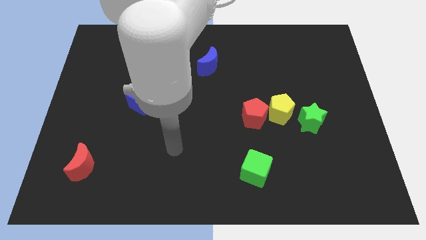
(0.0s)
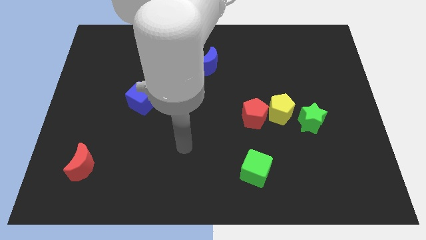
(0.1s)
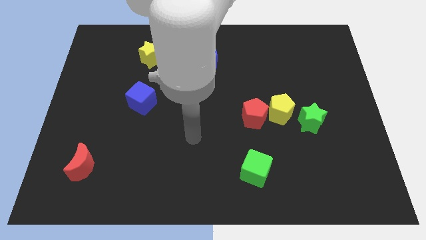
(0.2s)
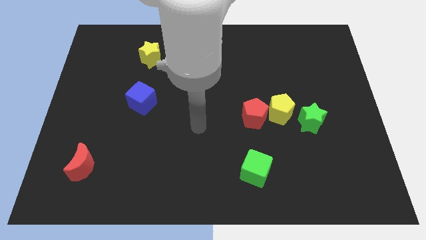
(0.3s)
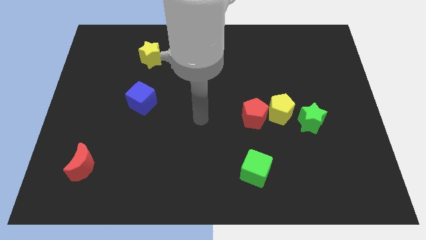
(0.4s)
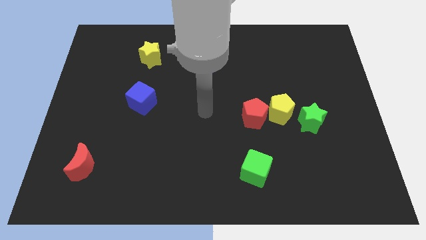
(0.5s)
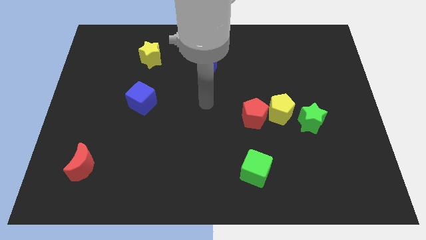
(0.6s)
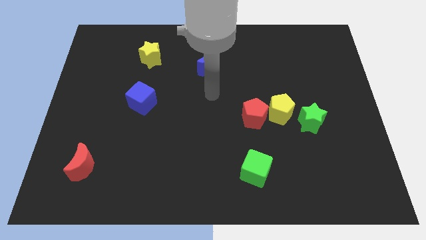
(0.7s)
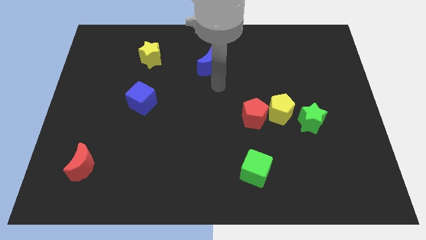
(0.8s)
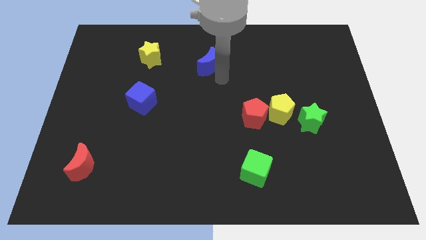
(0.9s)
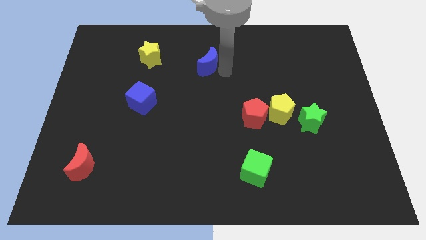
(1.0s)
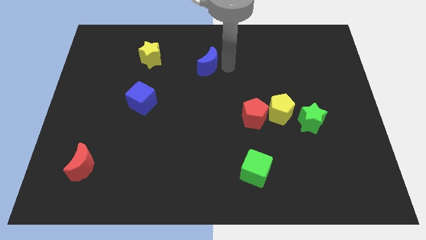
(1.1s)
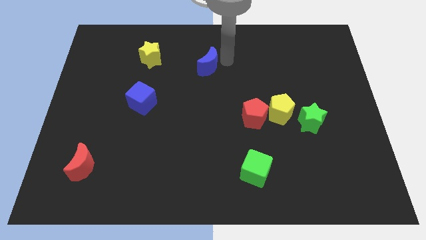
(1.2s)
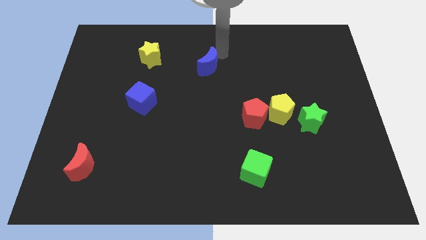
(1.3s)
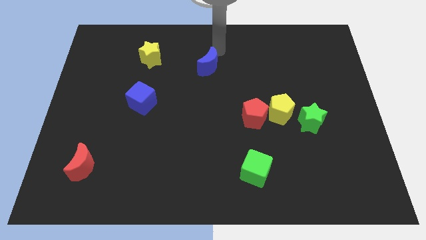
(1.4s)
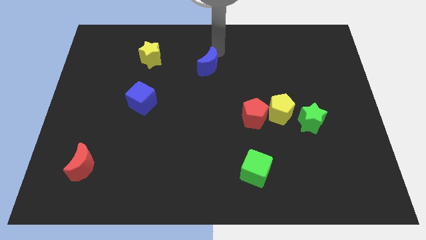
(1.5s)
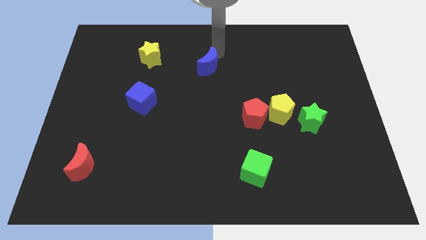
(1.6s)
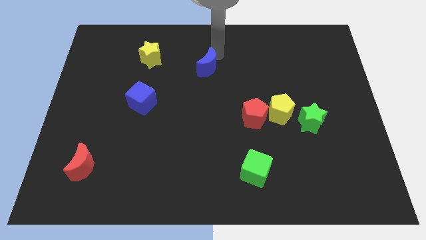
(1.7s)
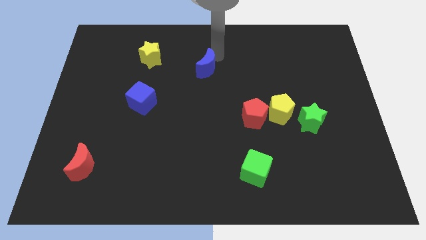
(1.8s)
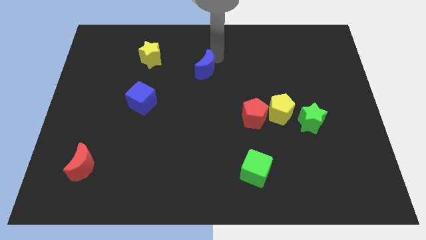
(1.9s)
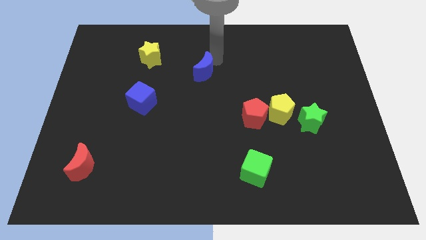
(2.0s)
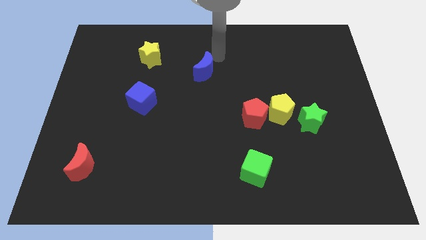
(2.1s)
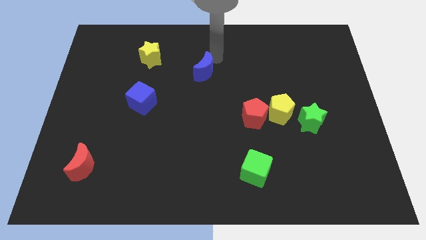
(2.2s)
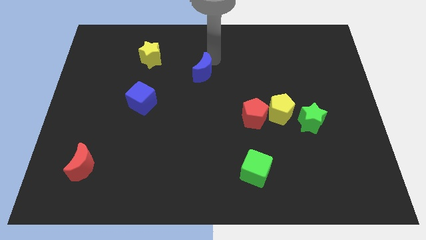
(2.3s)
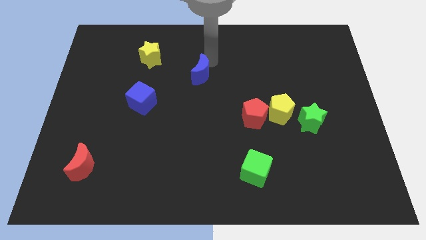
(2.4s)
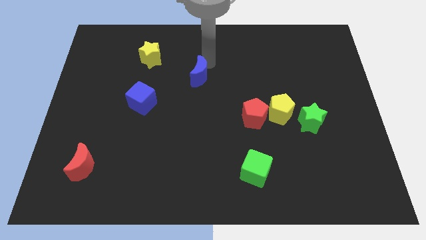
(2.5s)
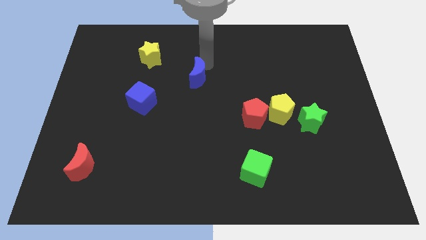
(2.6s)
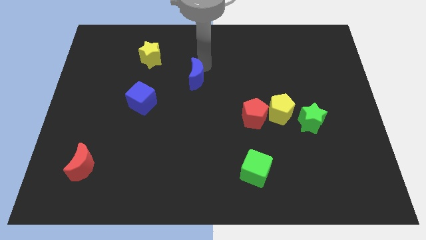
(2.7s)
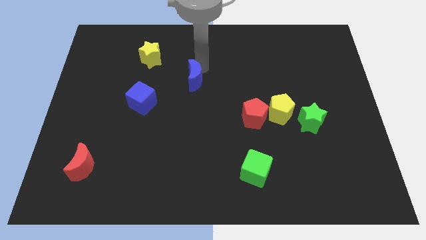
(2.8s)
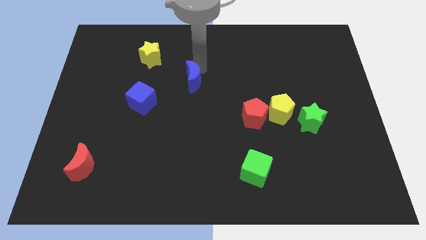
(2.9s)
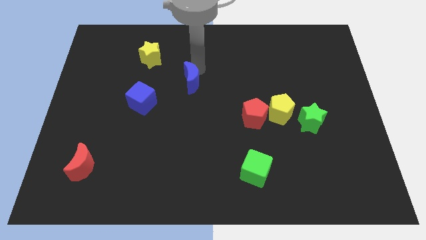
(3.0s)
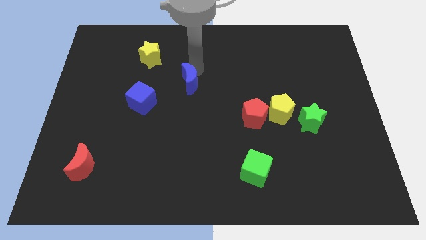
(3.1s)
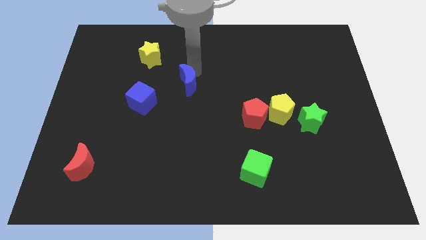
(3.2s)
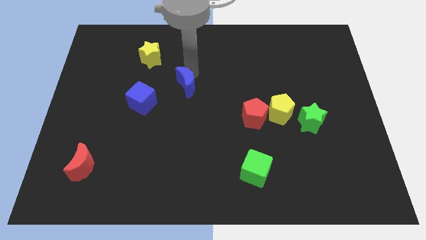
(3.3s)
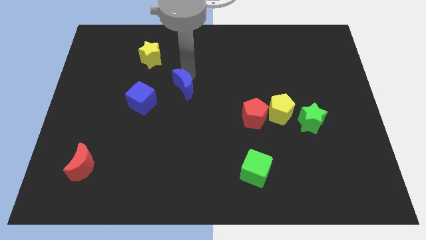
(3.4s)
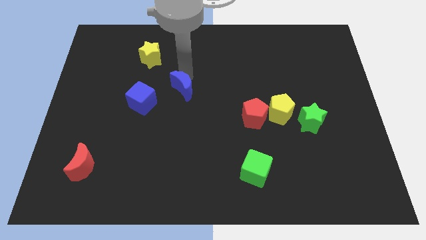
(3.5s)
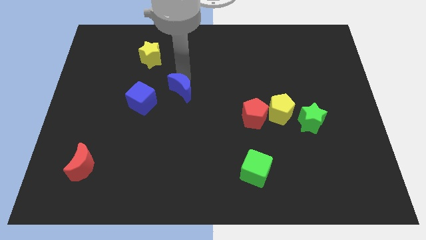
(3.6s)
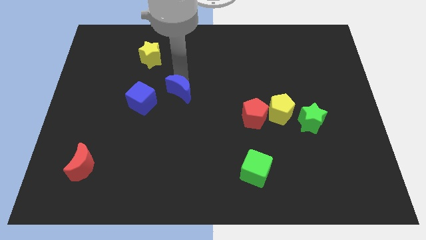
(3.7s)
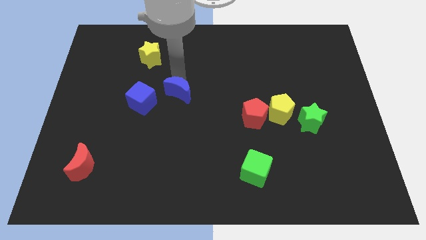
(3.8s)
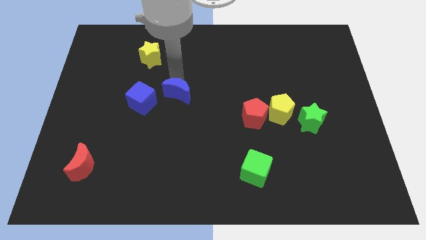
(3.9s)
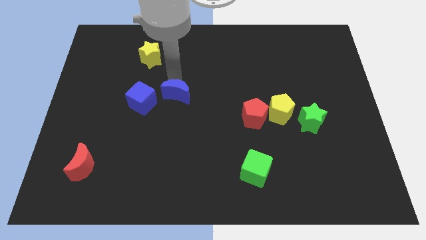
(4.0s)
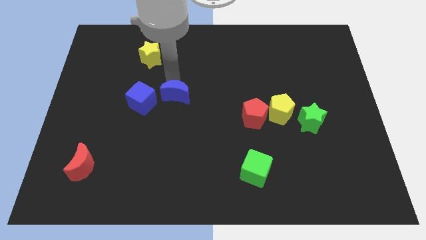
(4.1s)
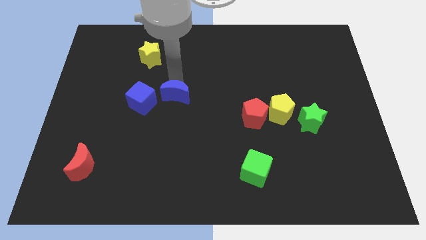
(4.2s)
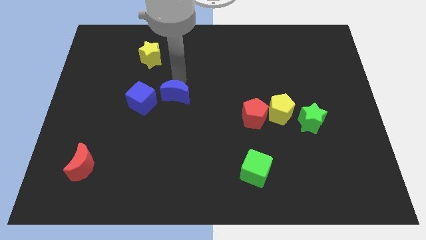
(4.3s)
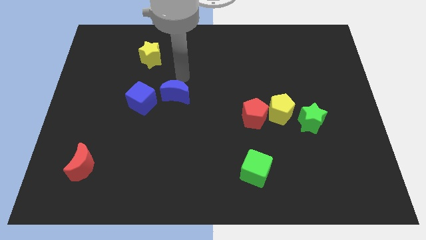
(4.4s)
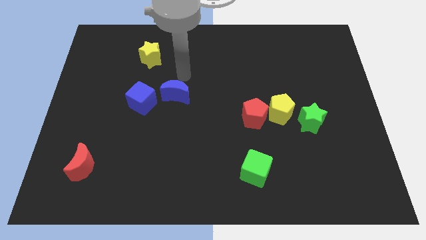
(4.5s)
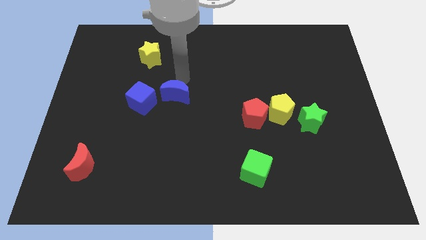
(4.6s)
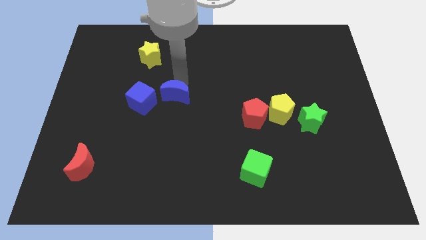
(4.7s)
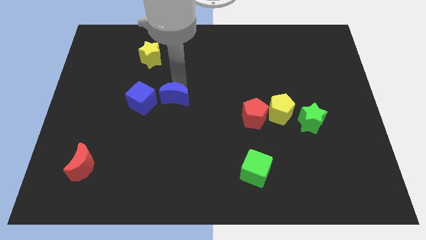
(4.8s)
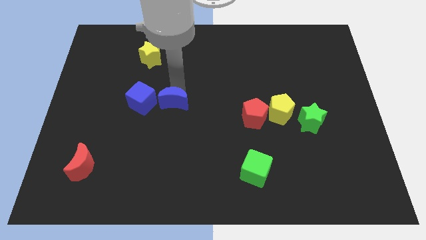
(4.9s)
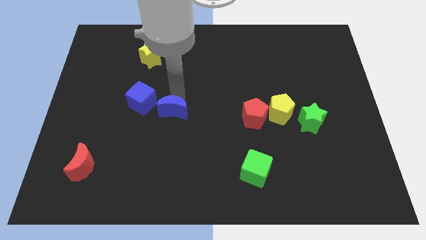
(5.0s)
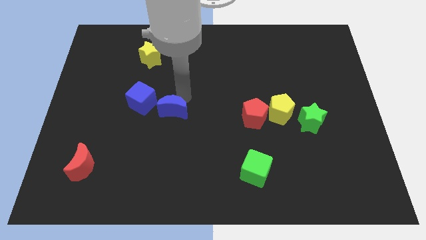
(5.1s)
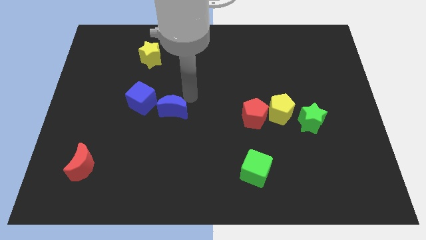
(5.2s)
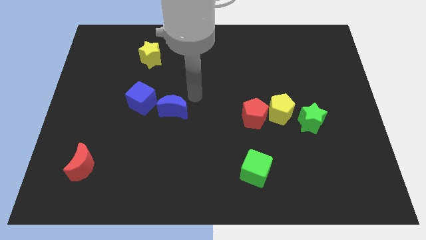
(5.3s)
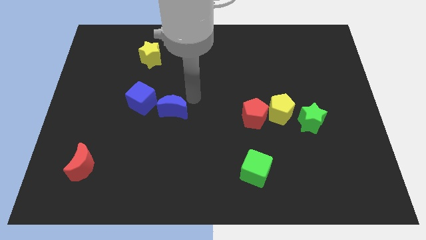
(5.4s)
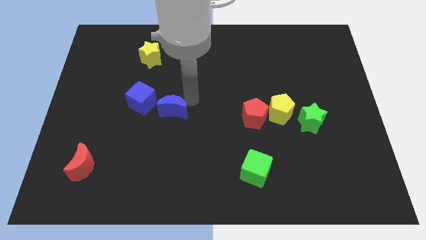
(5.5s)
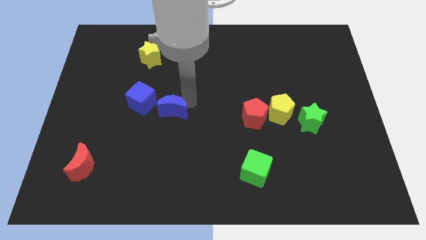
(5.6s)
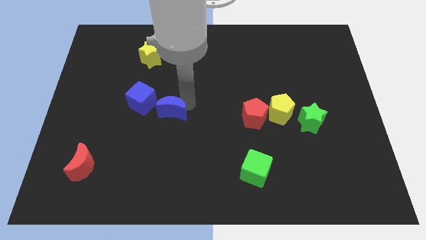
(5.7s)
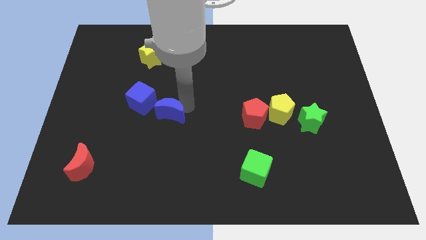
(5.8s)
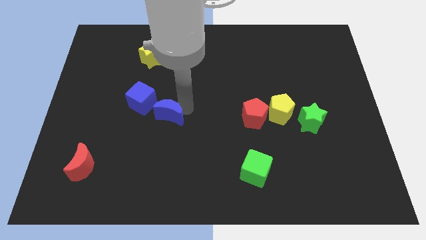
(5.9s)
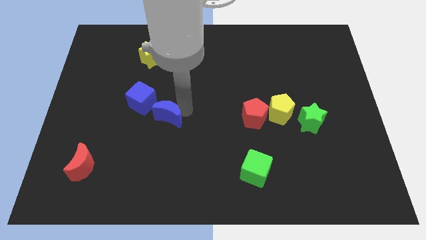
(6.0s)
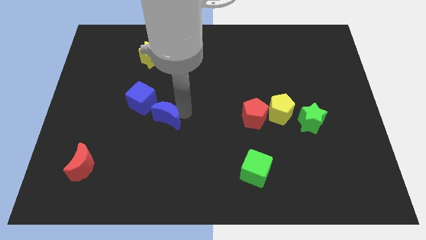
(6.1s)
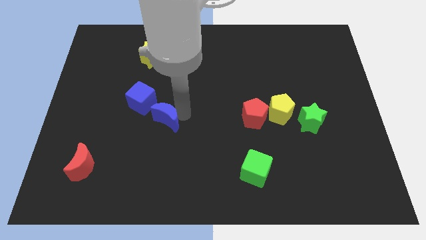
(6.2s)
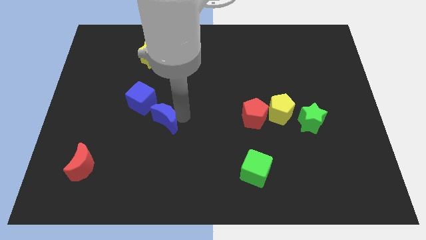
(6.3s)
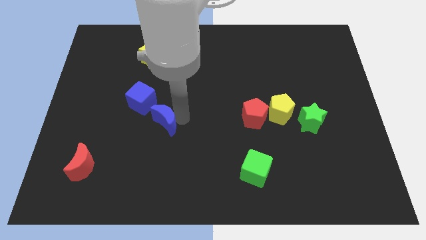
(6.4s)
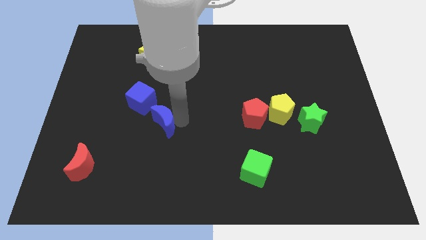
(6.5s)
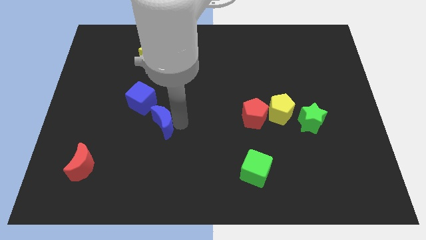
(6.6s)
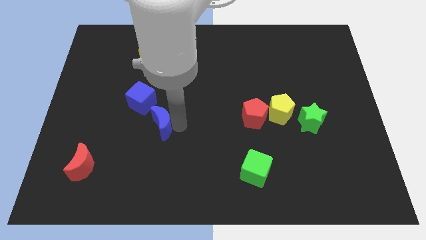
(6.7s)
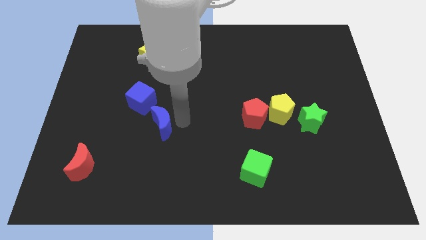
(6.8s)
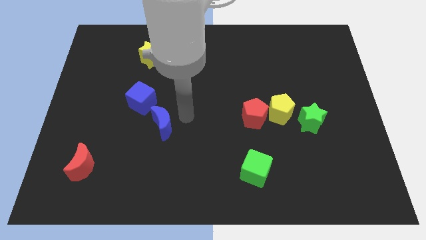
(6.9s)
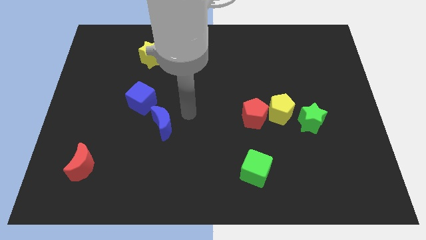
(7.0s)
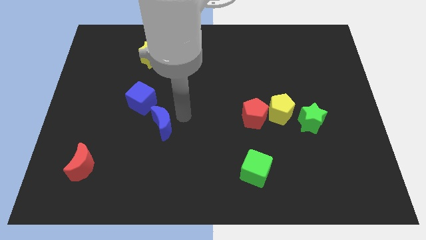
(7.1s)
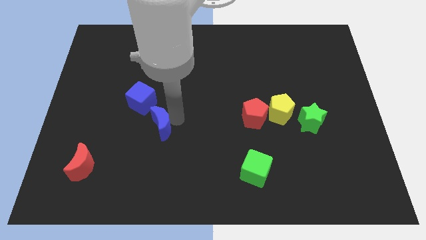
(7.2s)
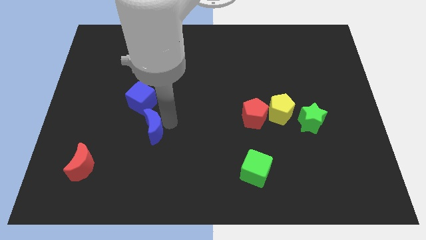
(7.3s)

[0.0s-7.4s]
put the blue moon below the blue cube
